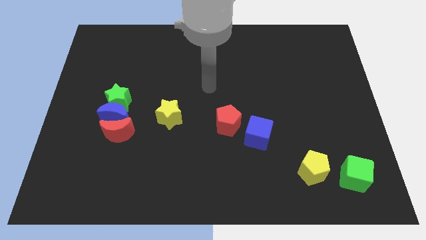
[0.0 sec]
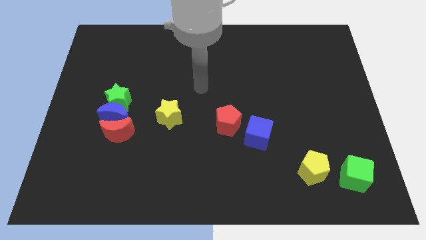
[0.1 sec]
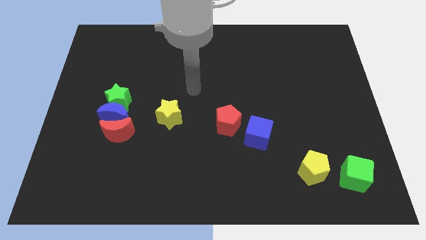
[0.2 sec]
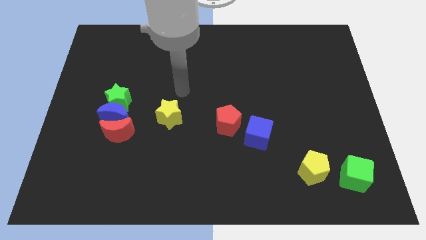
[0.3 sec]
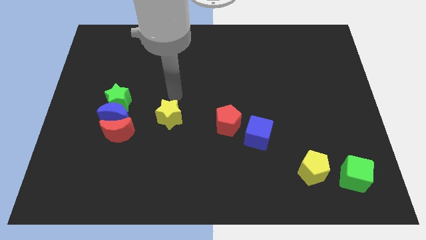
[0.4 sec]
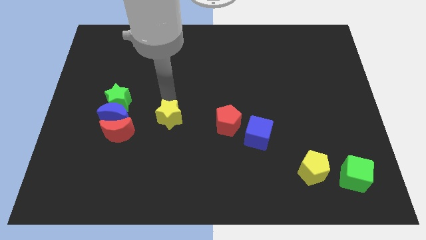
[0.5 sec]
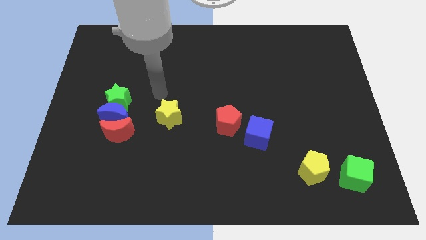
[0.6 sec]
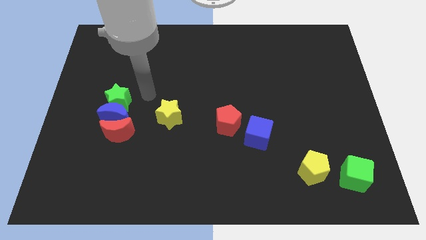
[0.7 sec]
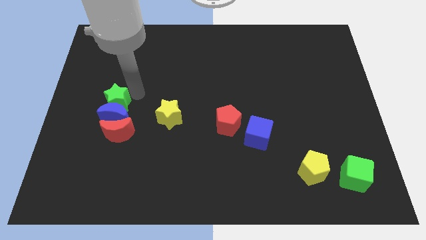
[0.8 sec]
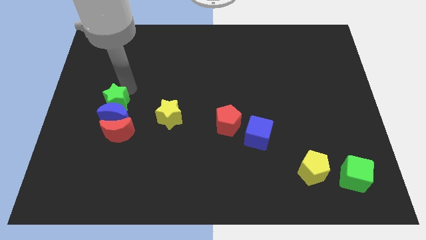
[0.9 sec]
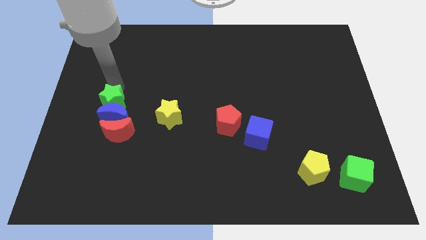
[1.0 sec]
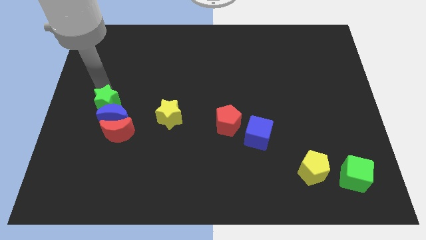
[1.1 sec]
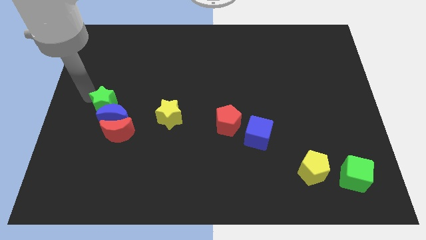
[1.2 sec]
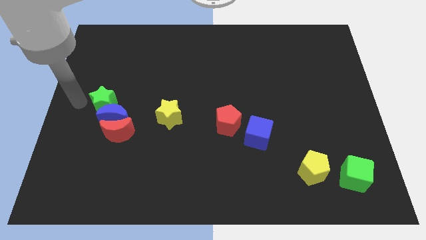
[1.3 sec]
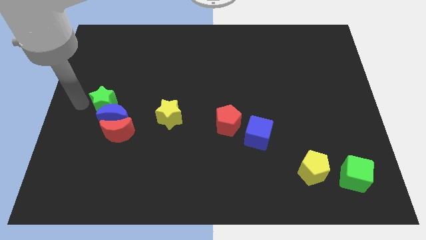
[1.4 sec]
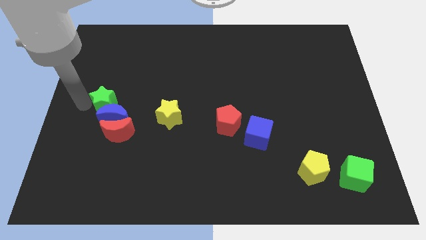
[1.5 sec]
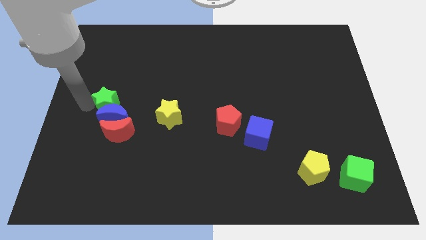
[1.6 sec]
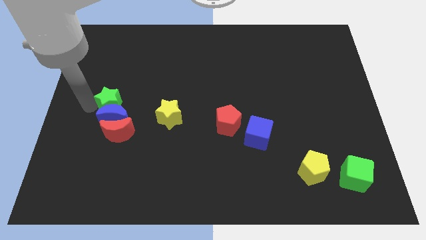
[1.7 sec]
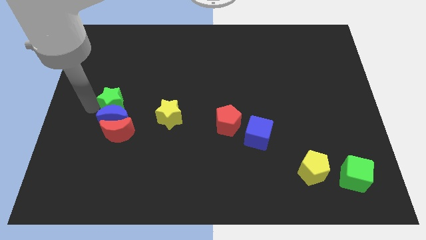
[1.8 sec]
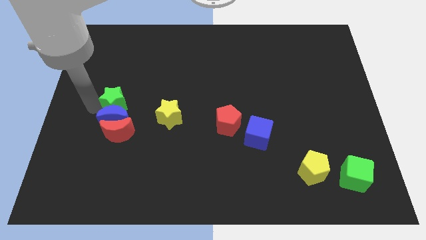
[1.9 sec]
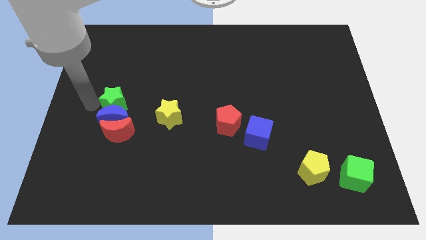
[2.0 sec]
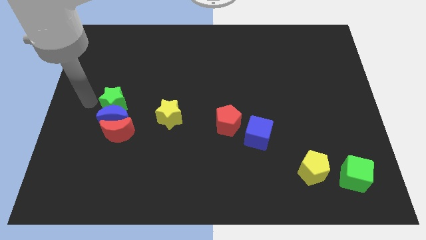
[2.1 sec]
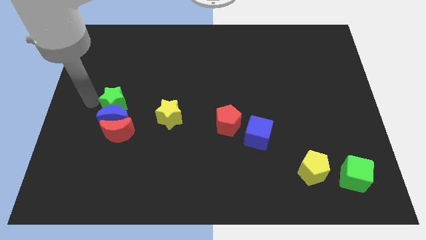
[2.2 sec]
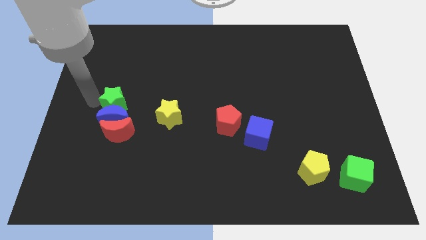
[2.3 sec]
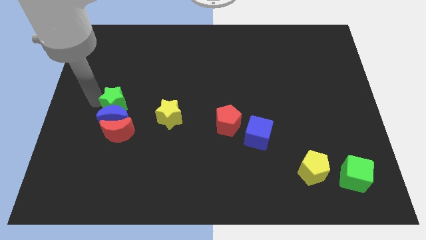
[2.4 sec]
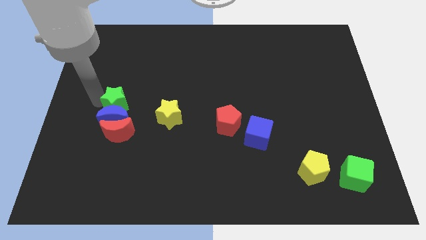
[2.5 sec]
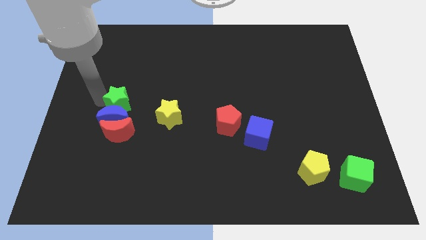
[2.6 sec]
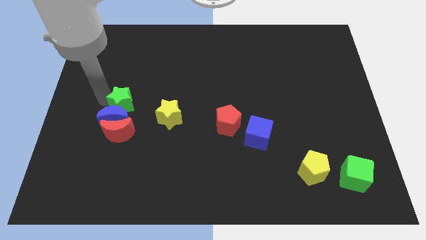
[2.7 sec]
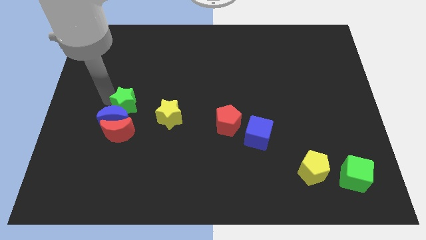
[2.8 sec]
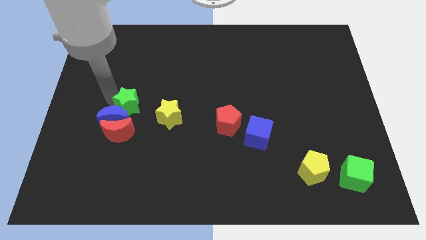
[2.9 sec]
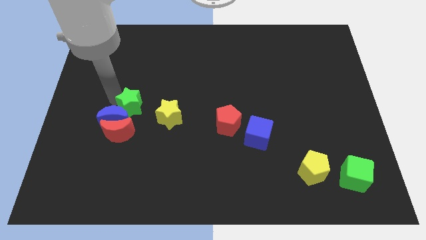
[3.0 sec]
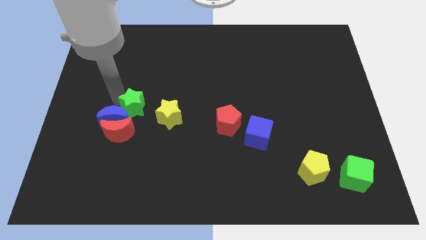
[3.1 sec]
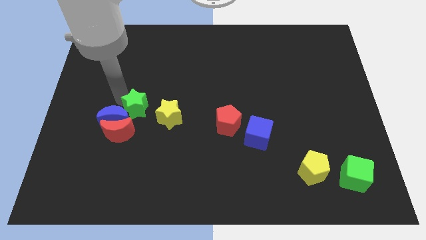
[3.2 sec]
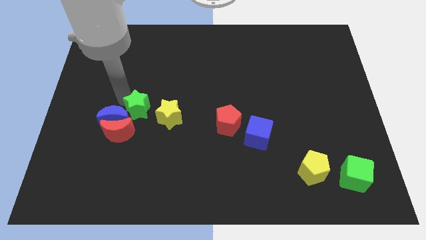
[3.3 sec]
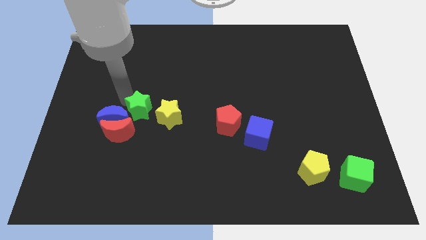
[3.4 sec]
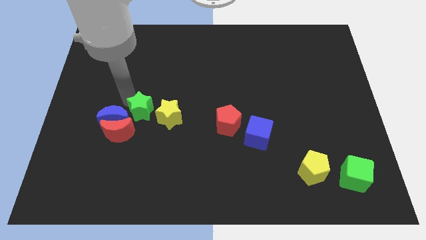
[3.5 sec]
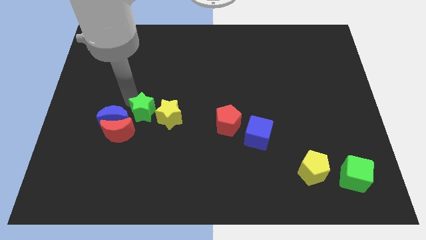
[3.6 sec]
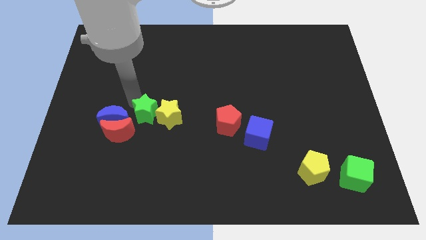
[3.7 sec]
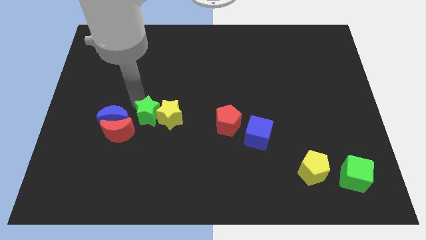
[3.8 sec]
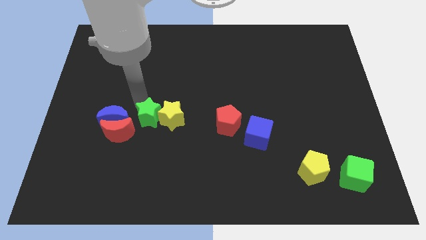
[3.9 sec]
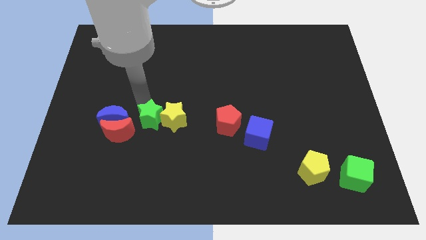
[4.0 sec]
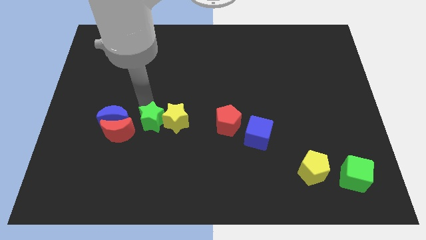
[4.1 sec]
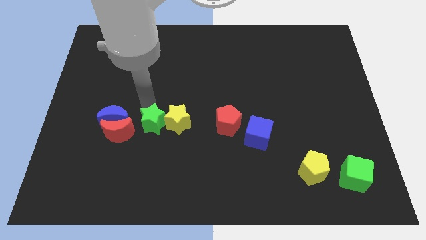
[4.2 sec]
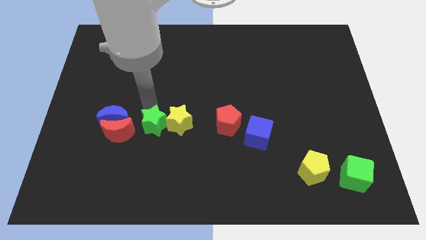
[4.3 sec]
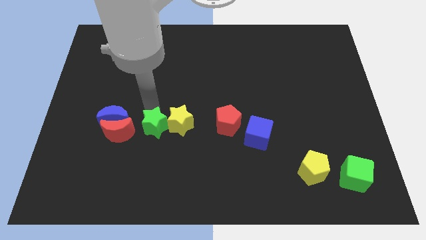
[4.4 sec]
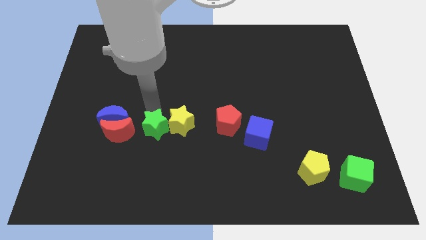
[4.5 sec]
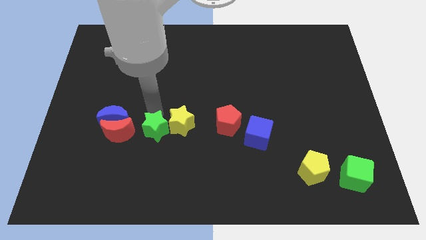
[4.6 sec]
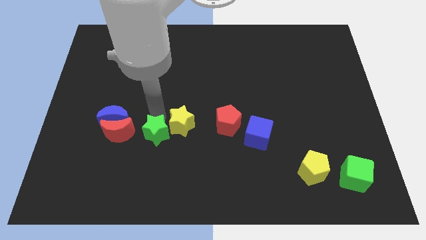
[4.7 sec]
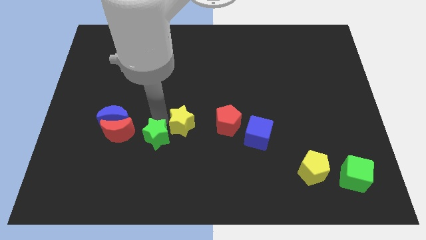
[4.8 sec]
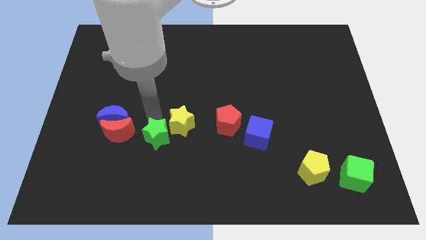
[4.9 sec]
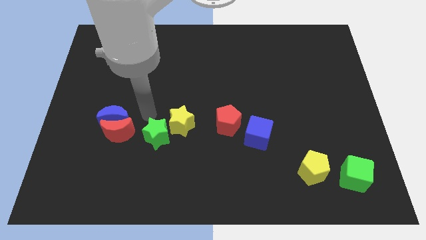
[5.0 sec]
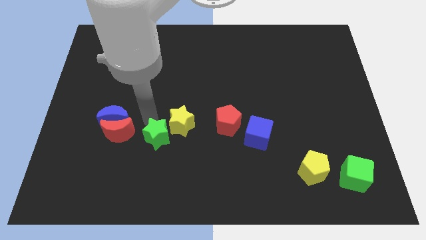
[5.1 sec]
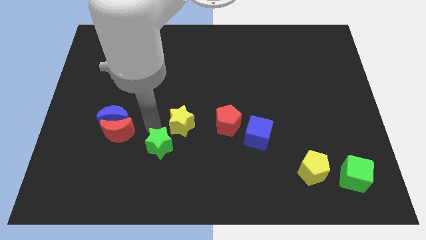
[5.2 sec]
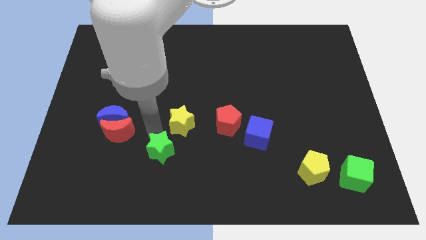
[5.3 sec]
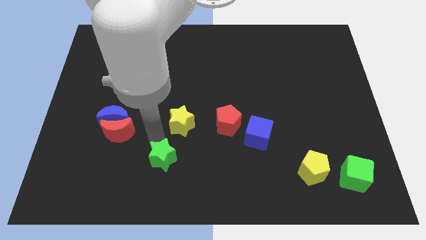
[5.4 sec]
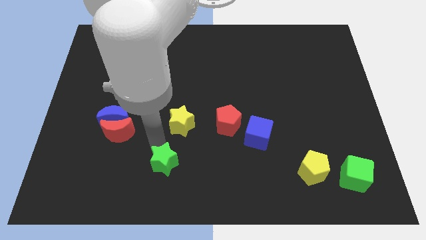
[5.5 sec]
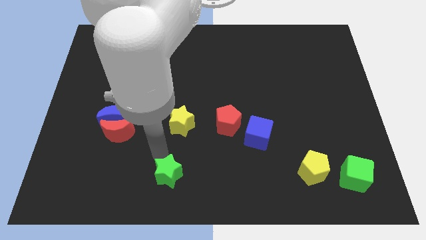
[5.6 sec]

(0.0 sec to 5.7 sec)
put the green star to the bottom
